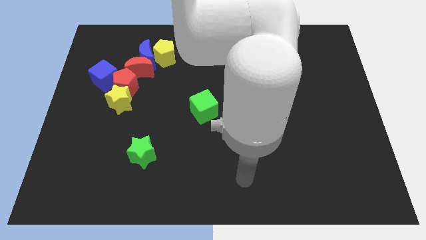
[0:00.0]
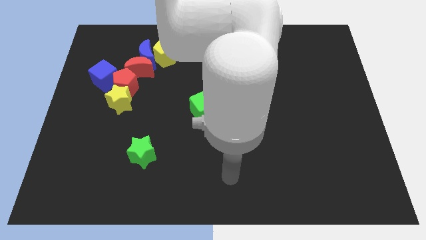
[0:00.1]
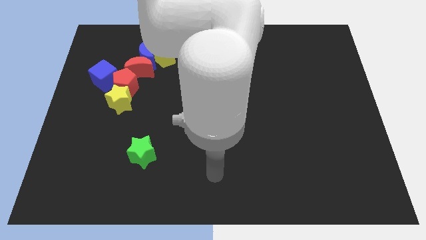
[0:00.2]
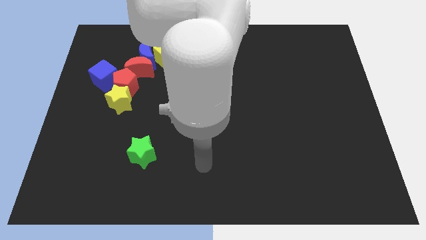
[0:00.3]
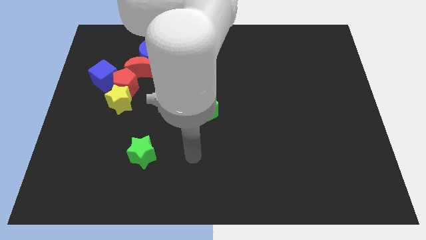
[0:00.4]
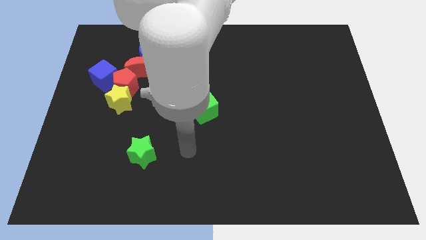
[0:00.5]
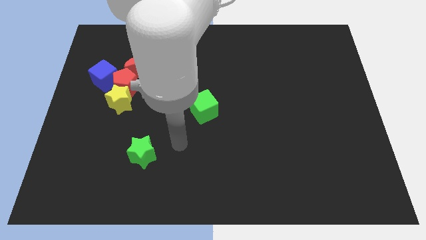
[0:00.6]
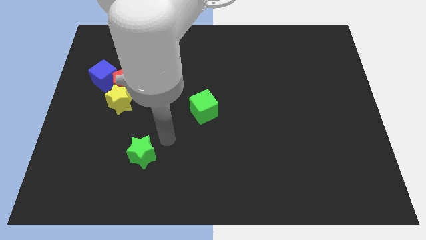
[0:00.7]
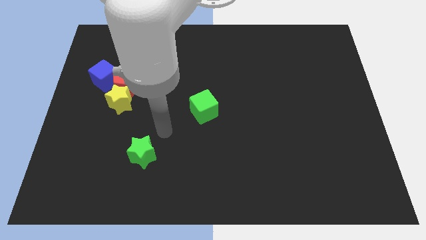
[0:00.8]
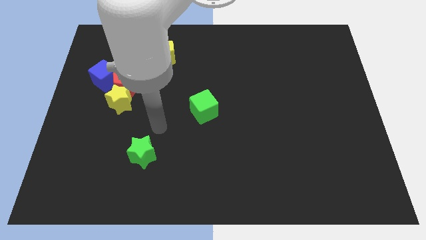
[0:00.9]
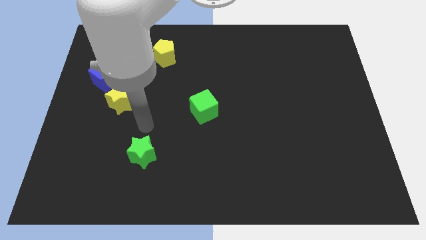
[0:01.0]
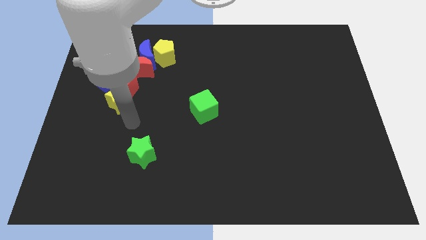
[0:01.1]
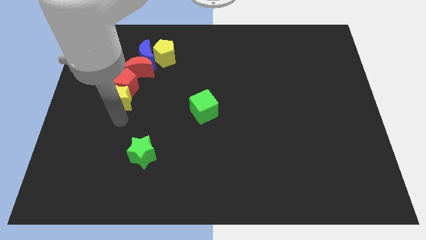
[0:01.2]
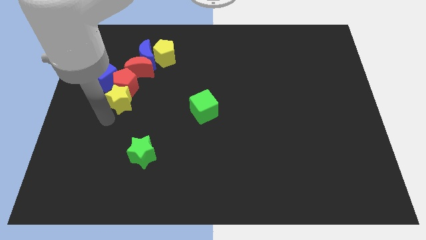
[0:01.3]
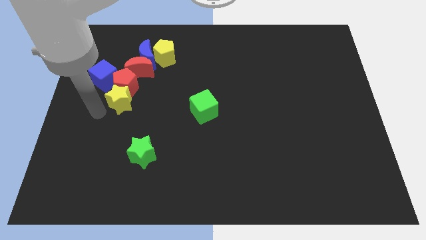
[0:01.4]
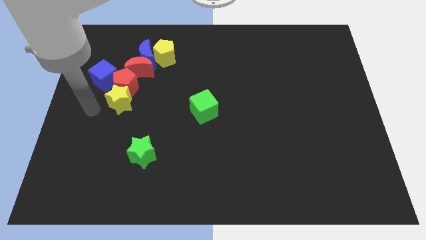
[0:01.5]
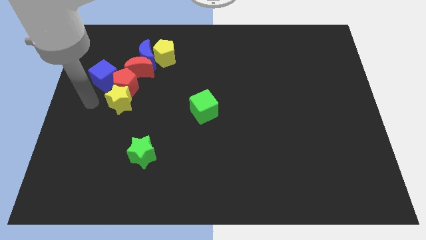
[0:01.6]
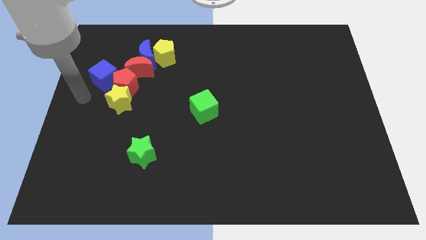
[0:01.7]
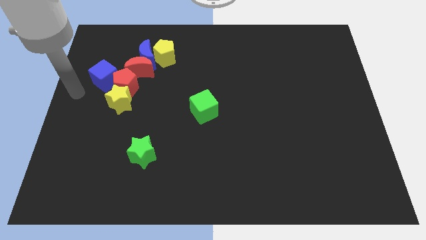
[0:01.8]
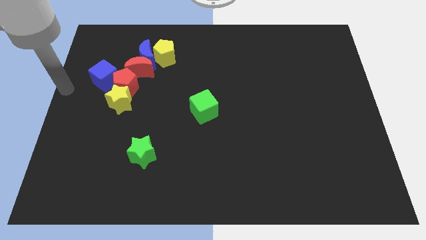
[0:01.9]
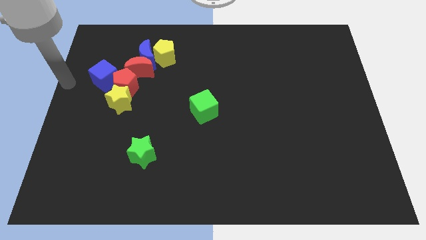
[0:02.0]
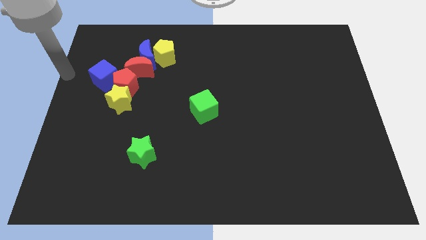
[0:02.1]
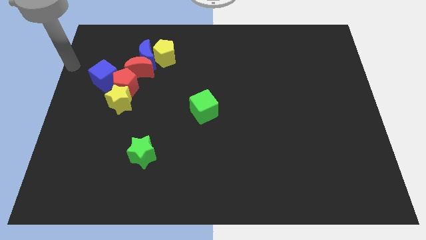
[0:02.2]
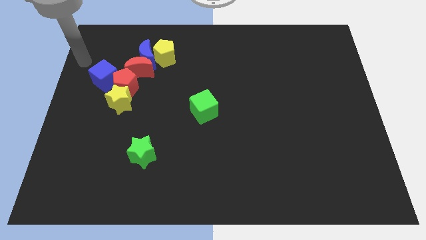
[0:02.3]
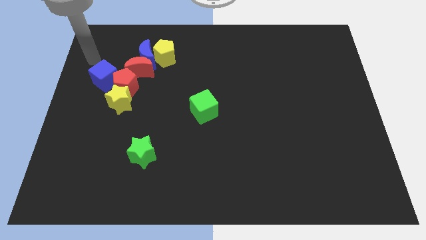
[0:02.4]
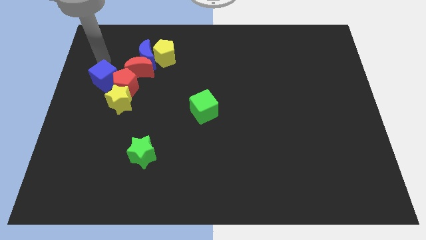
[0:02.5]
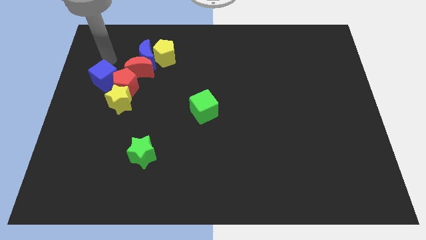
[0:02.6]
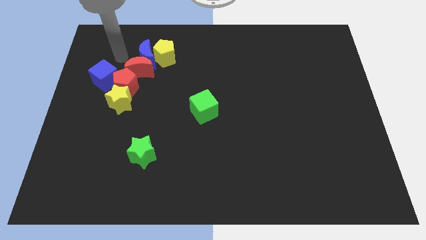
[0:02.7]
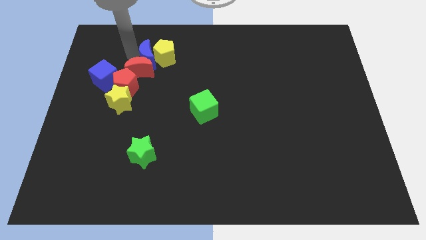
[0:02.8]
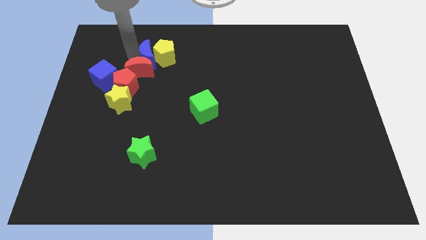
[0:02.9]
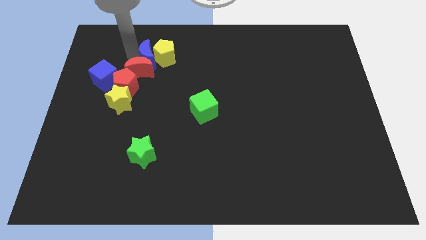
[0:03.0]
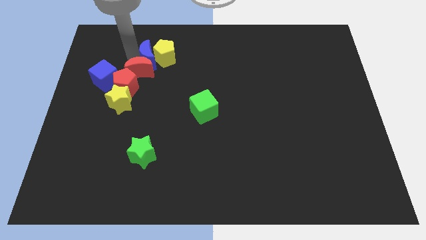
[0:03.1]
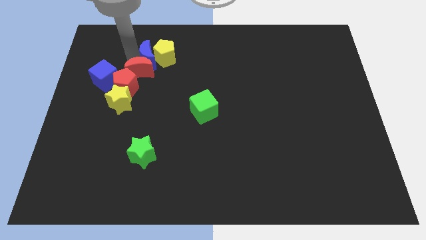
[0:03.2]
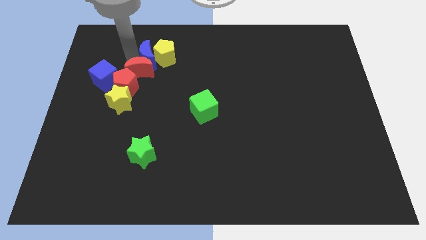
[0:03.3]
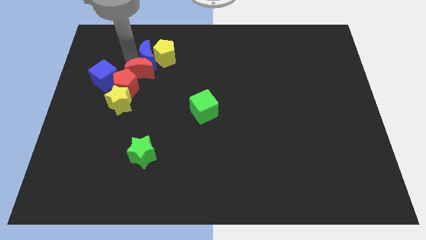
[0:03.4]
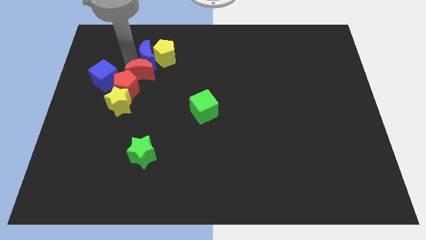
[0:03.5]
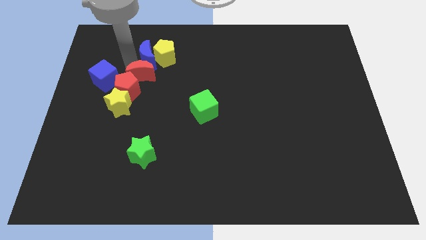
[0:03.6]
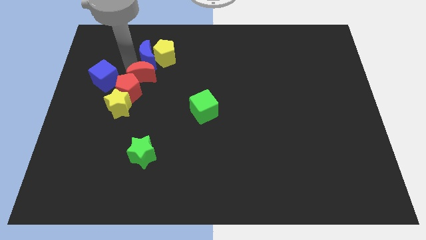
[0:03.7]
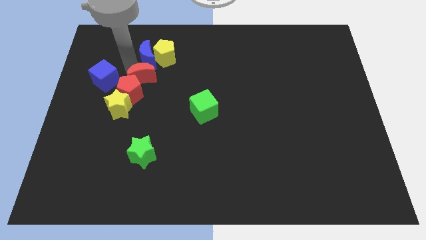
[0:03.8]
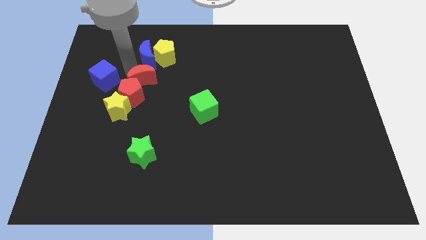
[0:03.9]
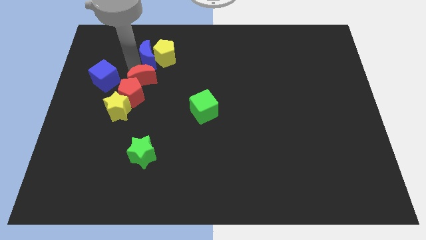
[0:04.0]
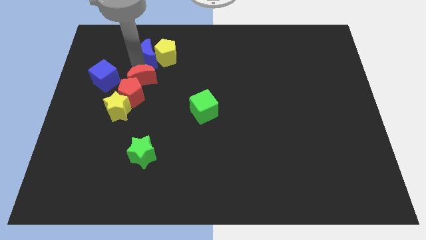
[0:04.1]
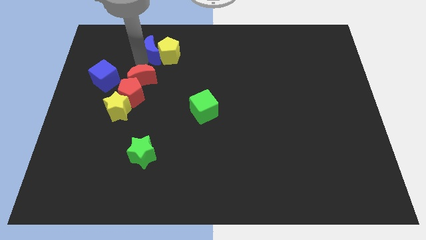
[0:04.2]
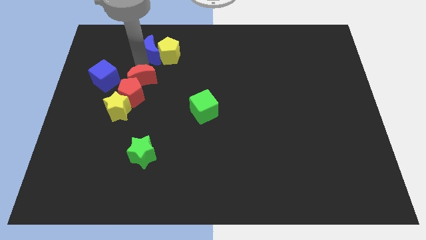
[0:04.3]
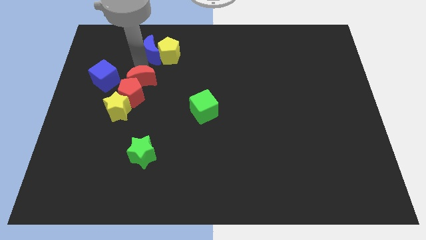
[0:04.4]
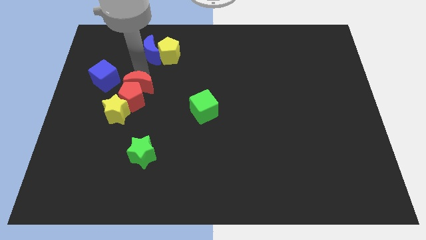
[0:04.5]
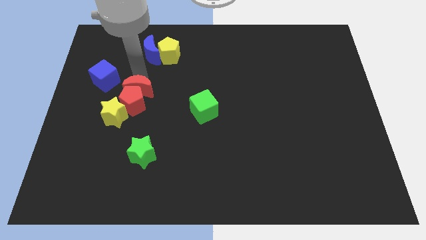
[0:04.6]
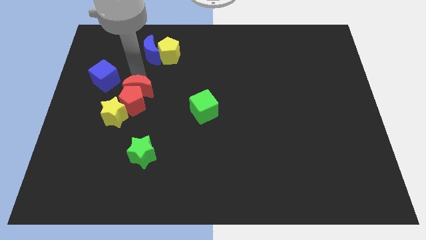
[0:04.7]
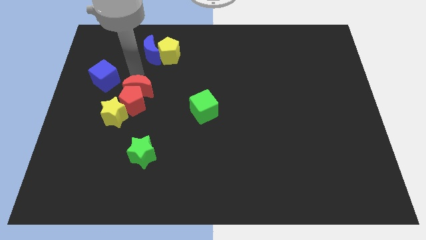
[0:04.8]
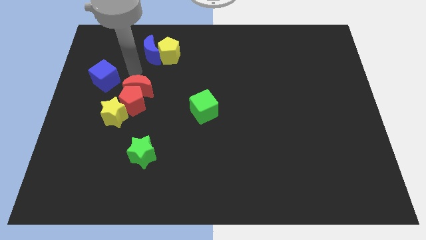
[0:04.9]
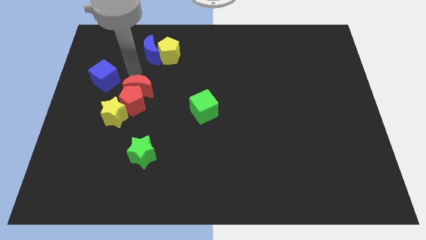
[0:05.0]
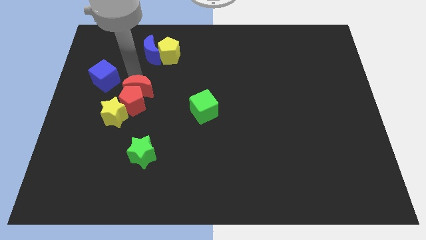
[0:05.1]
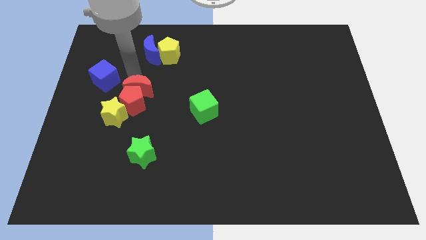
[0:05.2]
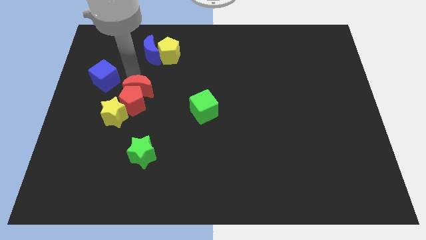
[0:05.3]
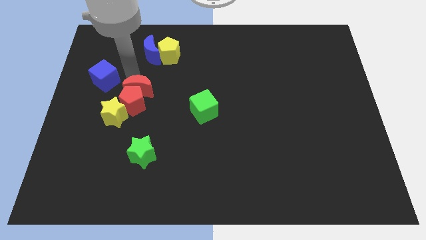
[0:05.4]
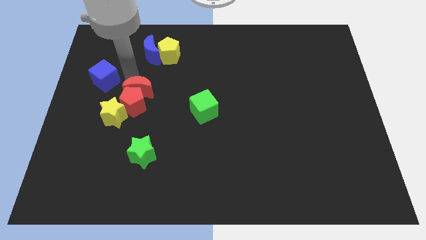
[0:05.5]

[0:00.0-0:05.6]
slide the red moon slightly down

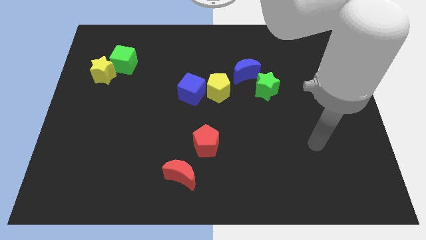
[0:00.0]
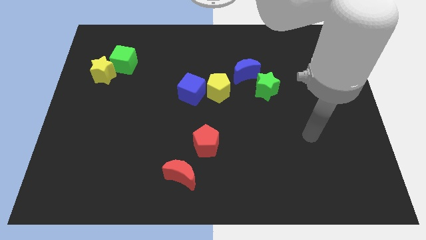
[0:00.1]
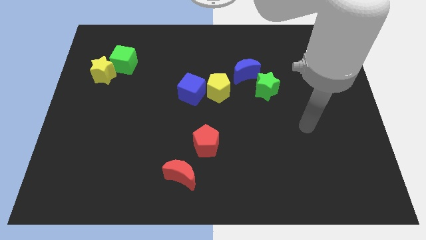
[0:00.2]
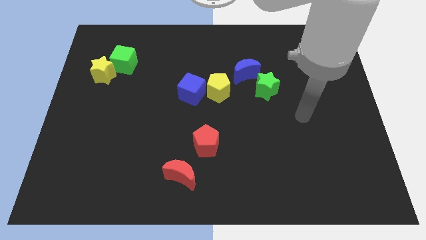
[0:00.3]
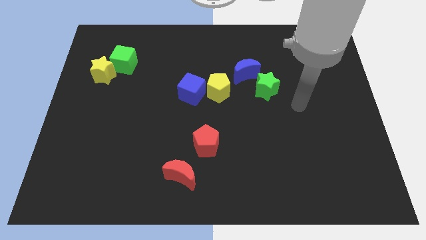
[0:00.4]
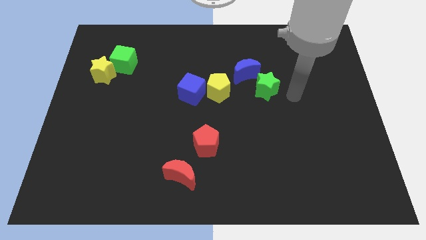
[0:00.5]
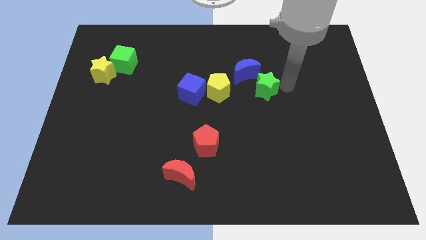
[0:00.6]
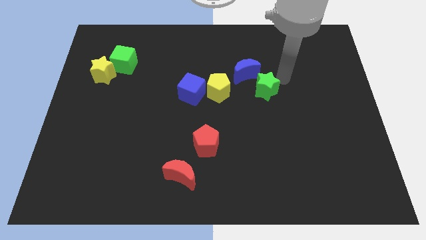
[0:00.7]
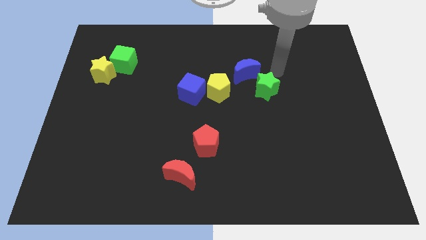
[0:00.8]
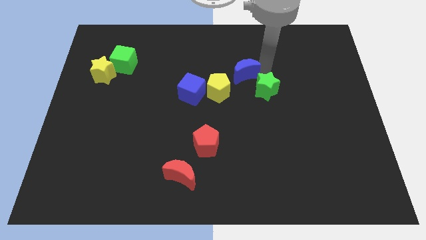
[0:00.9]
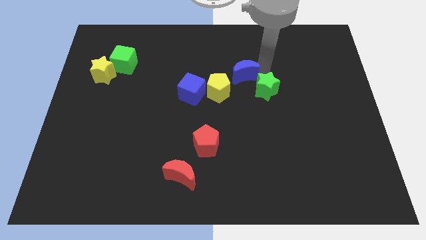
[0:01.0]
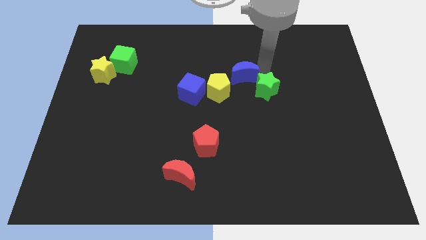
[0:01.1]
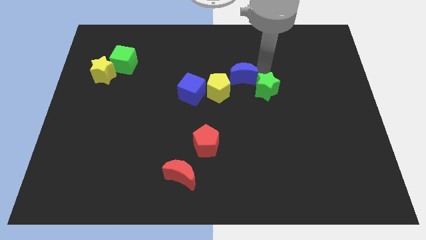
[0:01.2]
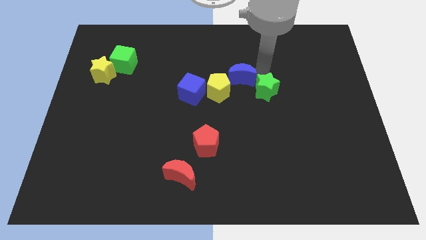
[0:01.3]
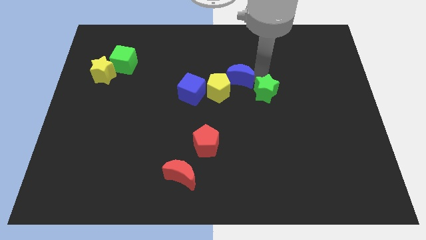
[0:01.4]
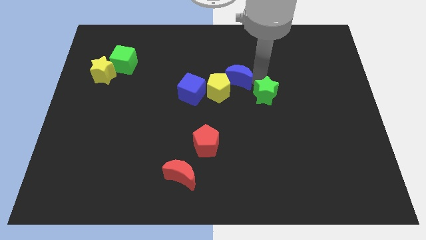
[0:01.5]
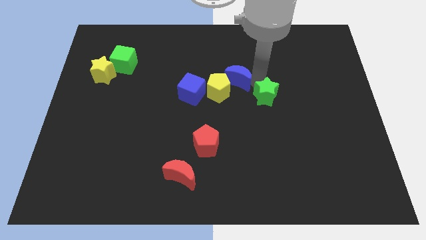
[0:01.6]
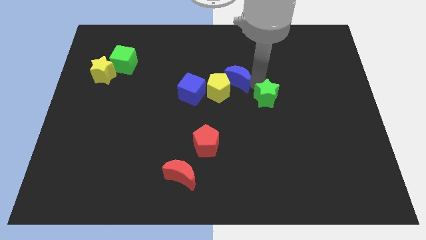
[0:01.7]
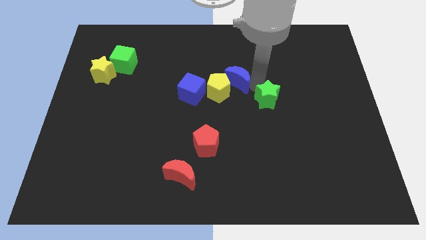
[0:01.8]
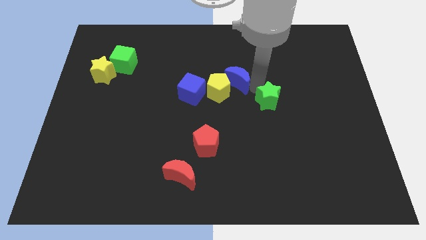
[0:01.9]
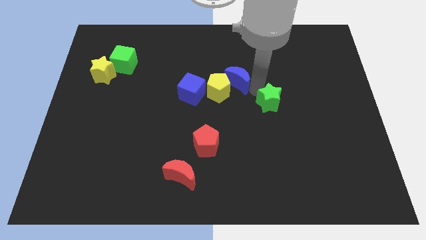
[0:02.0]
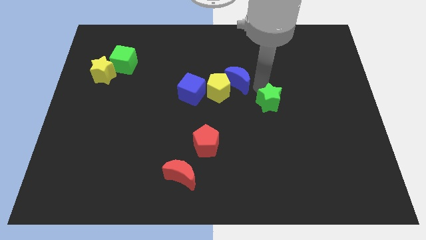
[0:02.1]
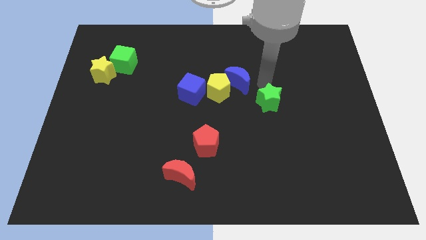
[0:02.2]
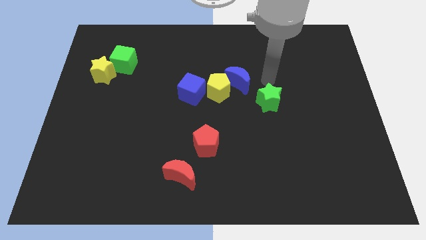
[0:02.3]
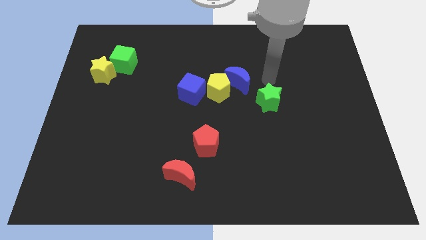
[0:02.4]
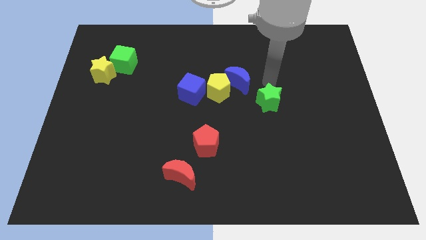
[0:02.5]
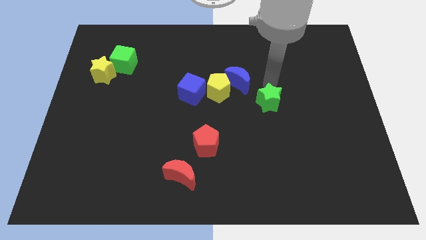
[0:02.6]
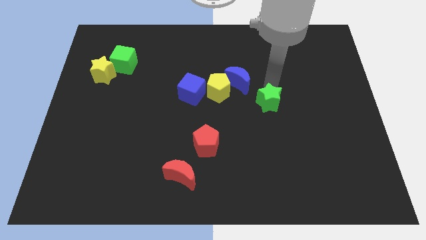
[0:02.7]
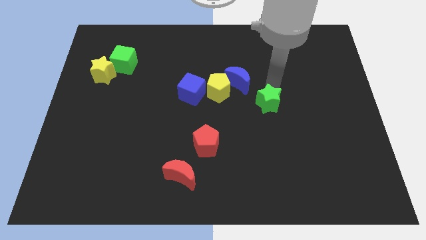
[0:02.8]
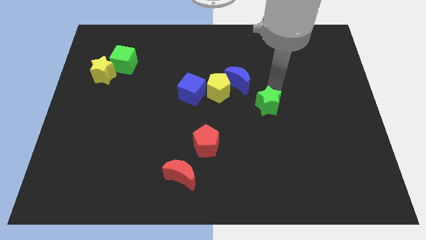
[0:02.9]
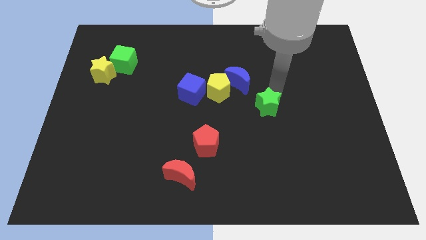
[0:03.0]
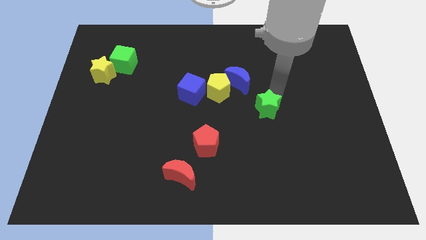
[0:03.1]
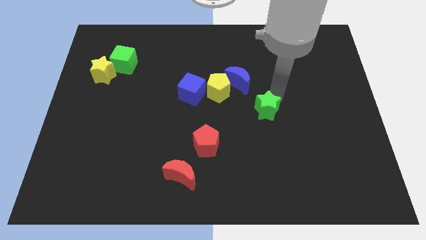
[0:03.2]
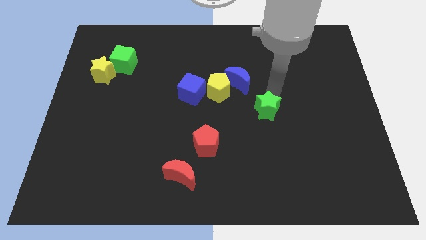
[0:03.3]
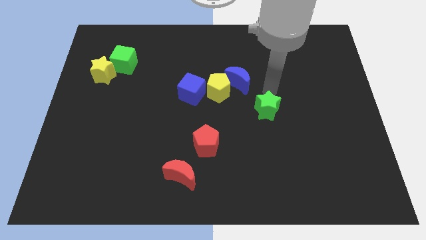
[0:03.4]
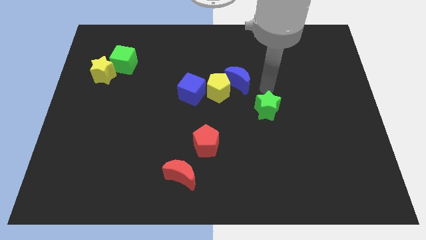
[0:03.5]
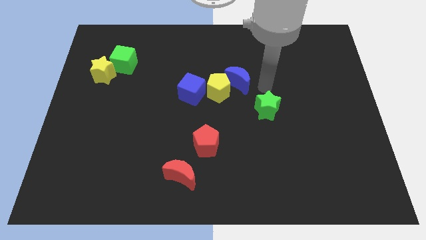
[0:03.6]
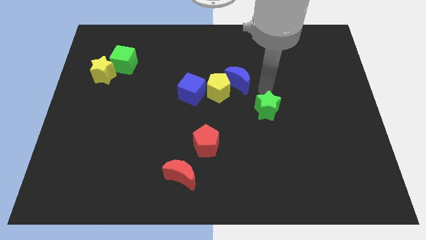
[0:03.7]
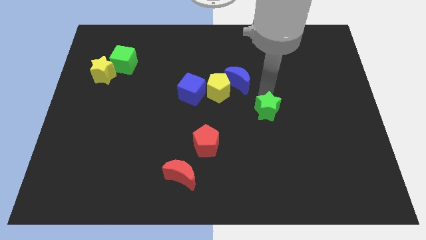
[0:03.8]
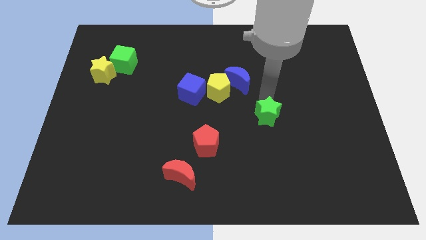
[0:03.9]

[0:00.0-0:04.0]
slide the green star down a bit
